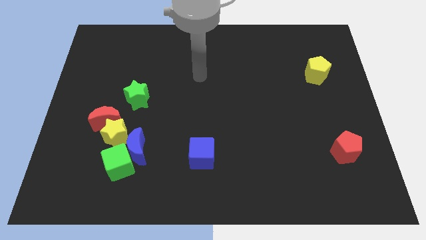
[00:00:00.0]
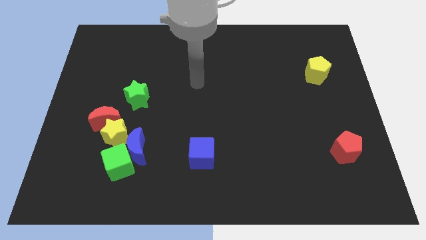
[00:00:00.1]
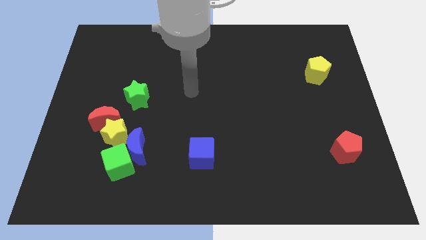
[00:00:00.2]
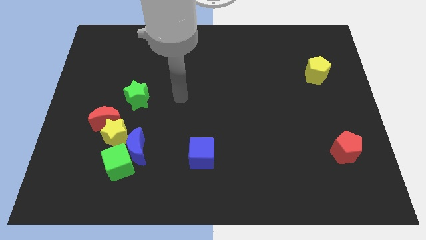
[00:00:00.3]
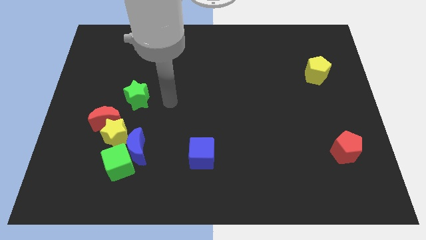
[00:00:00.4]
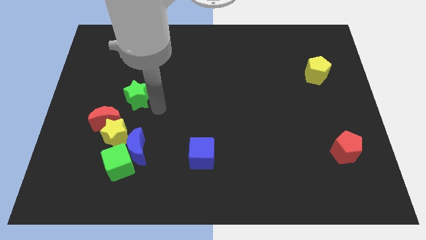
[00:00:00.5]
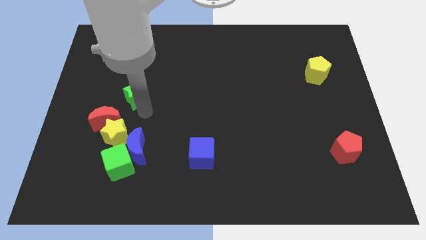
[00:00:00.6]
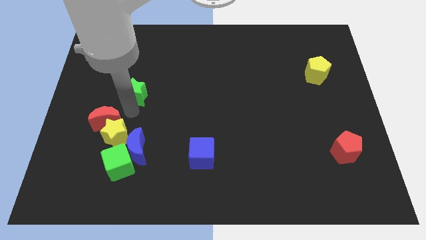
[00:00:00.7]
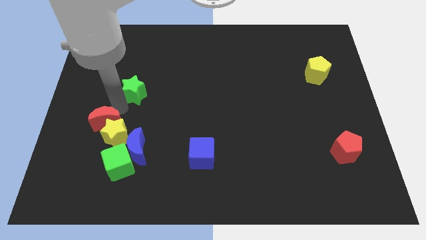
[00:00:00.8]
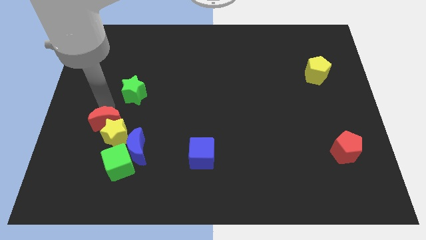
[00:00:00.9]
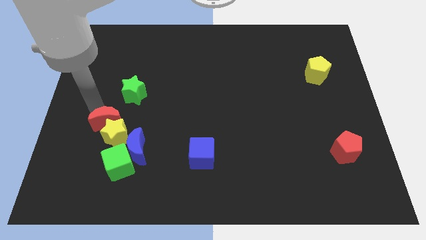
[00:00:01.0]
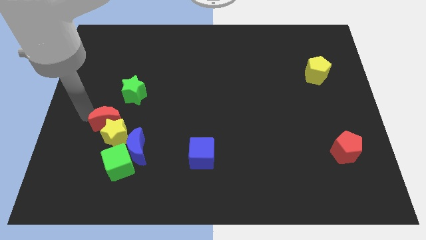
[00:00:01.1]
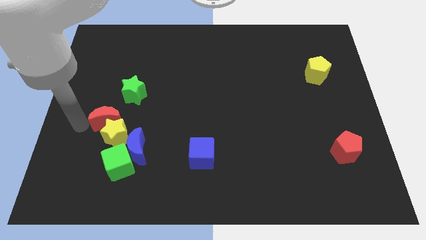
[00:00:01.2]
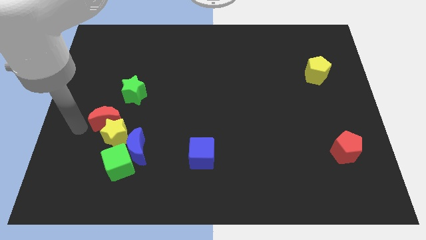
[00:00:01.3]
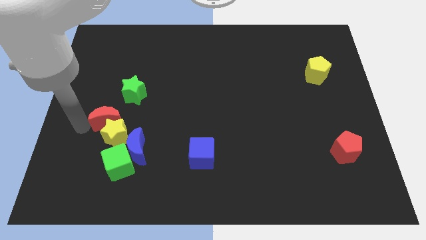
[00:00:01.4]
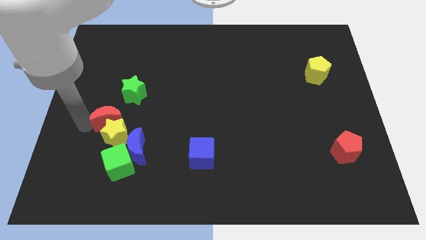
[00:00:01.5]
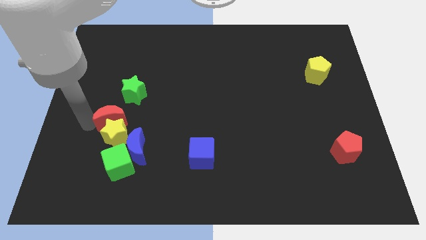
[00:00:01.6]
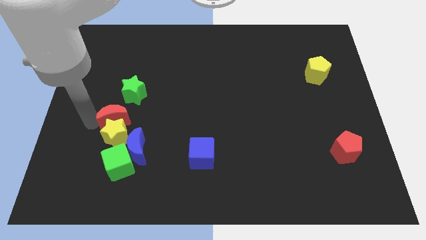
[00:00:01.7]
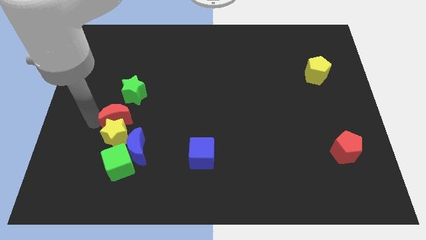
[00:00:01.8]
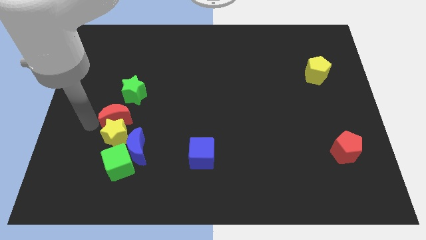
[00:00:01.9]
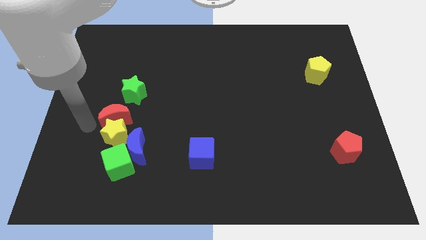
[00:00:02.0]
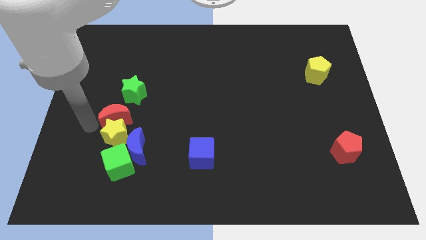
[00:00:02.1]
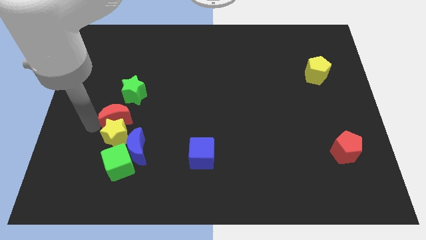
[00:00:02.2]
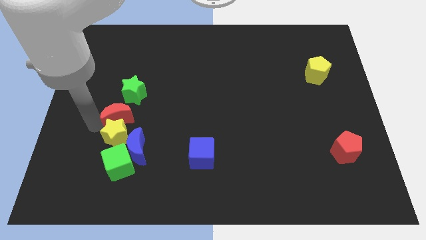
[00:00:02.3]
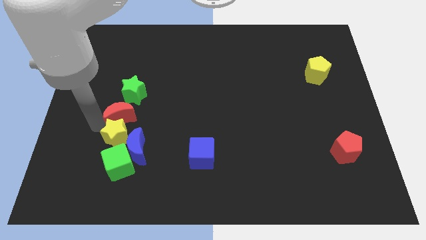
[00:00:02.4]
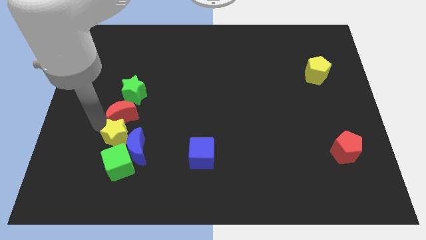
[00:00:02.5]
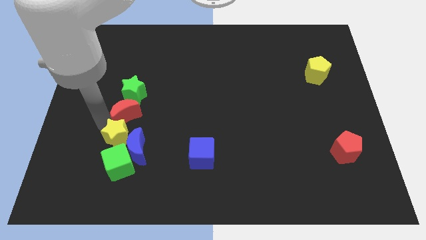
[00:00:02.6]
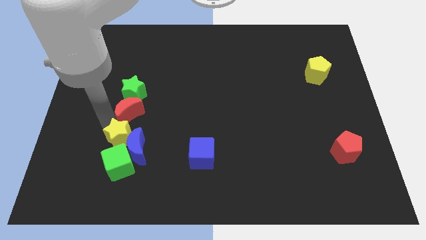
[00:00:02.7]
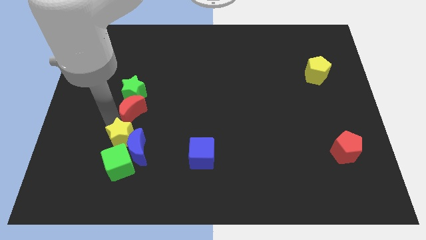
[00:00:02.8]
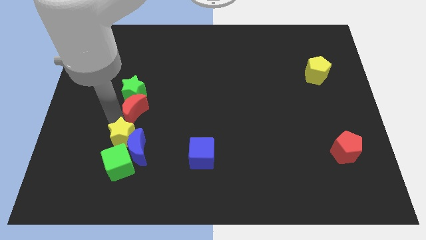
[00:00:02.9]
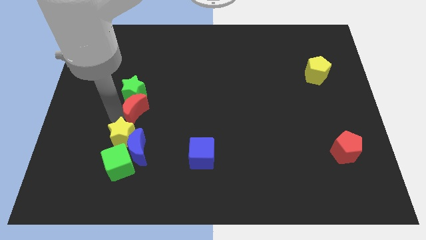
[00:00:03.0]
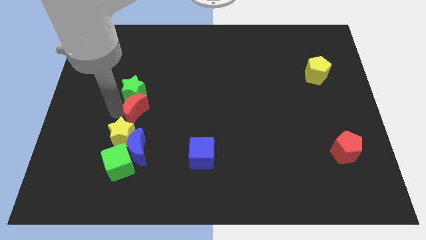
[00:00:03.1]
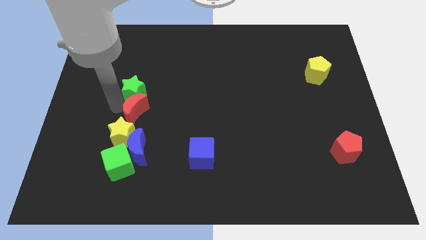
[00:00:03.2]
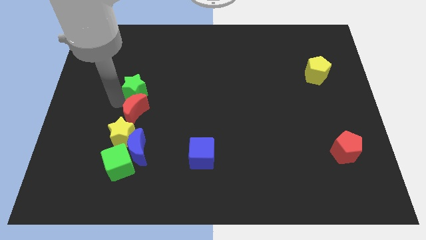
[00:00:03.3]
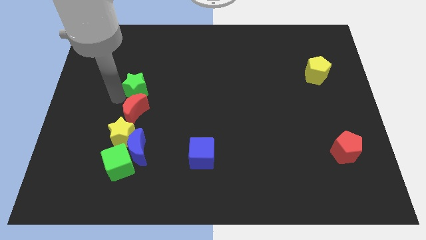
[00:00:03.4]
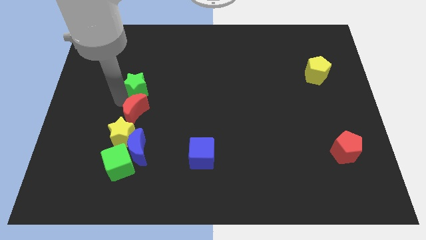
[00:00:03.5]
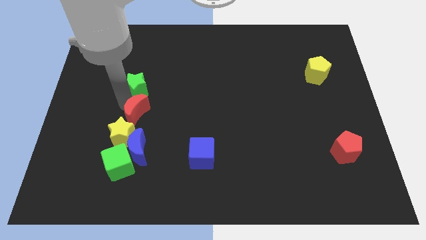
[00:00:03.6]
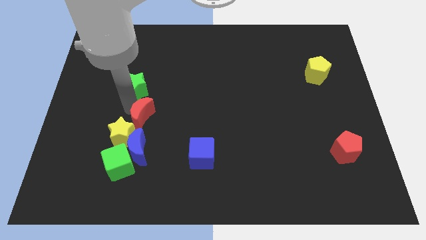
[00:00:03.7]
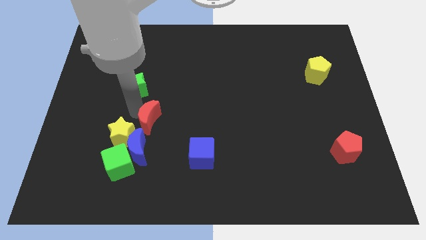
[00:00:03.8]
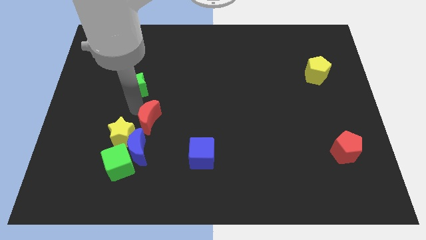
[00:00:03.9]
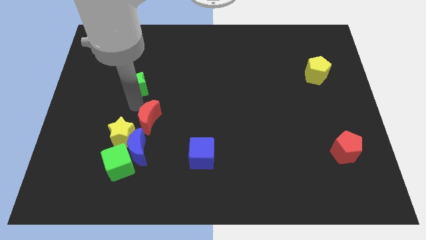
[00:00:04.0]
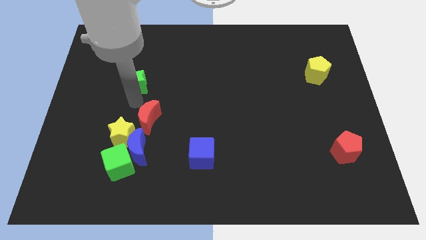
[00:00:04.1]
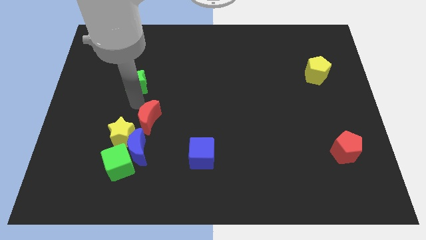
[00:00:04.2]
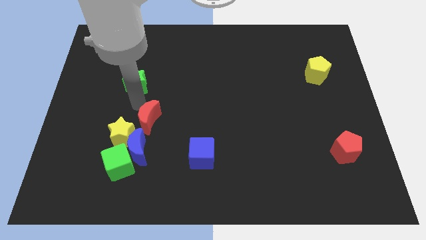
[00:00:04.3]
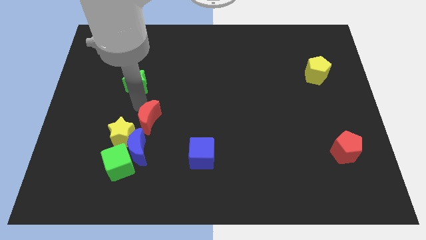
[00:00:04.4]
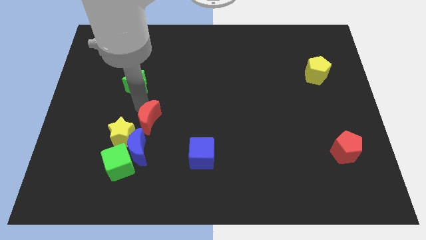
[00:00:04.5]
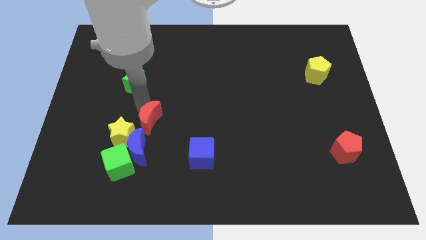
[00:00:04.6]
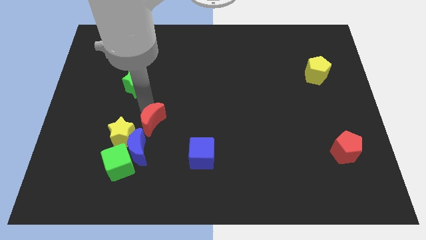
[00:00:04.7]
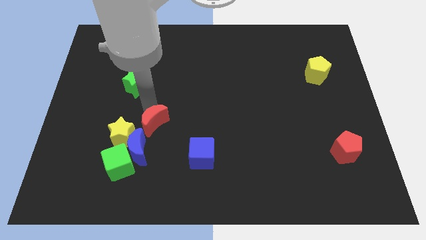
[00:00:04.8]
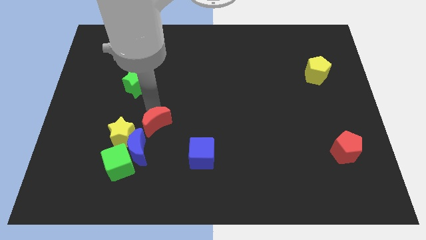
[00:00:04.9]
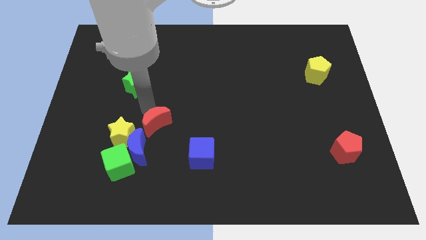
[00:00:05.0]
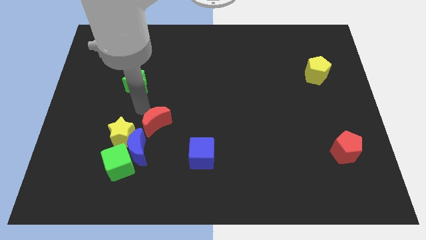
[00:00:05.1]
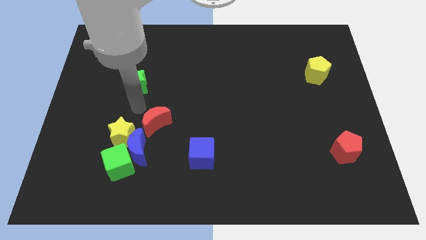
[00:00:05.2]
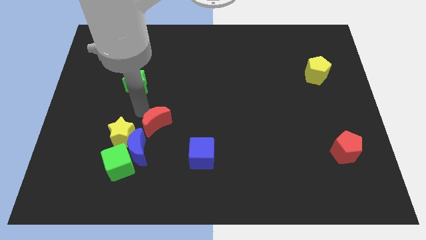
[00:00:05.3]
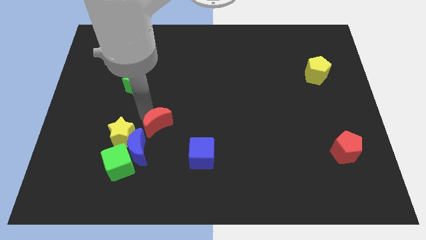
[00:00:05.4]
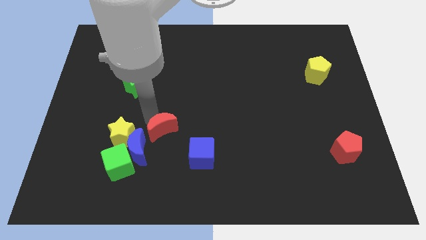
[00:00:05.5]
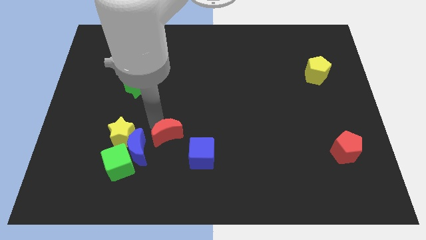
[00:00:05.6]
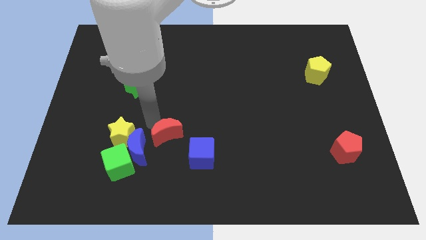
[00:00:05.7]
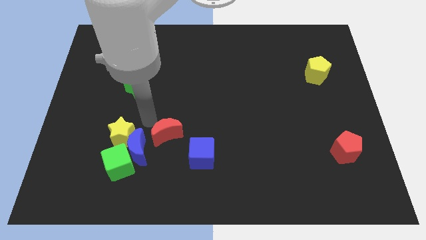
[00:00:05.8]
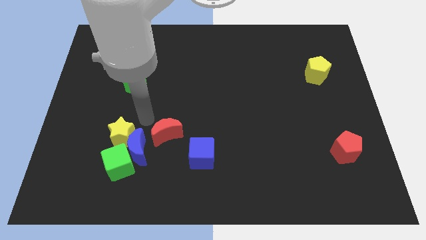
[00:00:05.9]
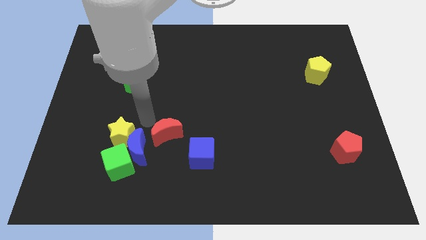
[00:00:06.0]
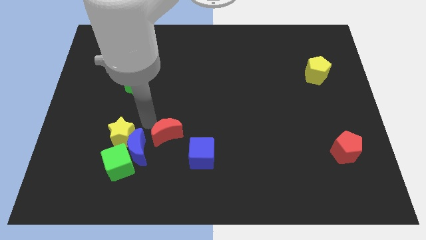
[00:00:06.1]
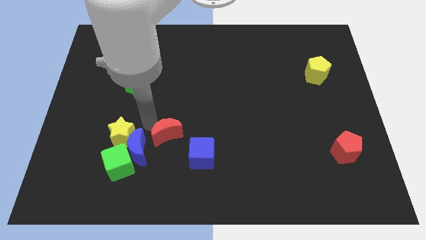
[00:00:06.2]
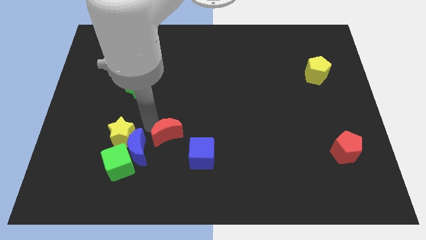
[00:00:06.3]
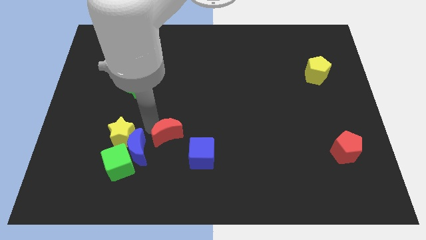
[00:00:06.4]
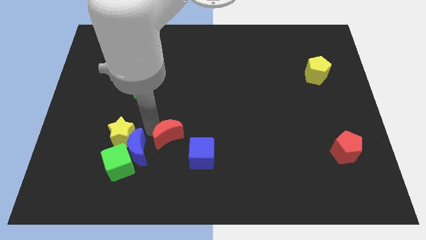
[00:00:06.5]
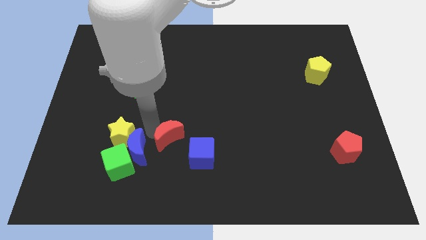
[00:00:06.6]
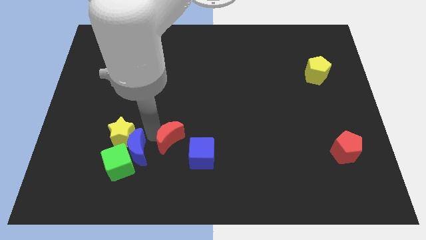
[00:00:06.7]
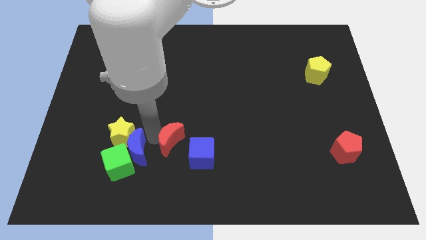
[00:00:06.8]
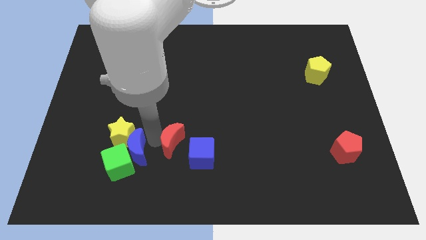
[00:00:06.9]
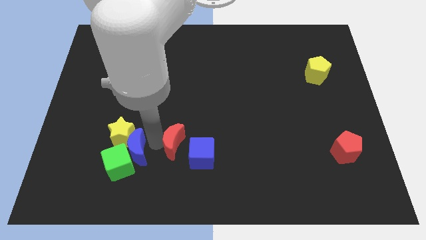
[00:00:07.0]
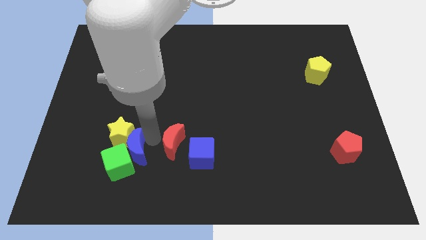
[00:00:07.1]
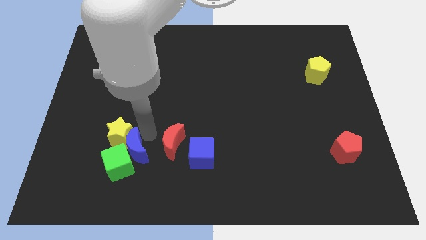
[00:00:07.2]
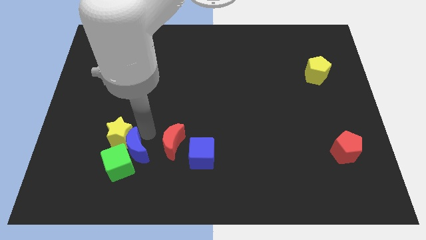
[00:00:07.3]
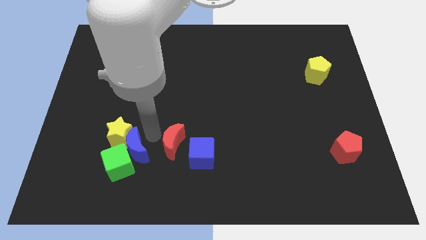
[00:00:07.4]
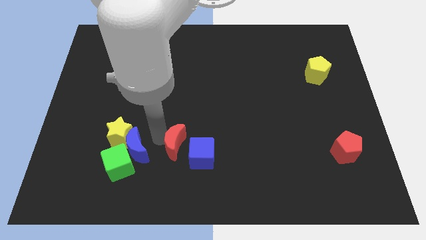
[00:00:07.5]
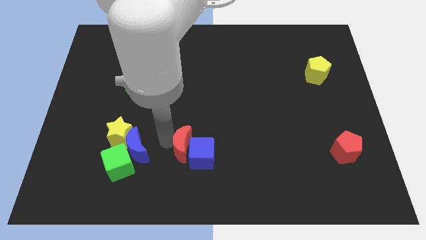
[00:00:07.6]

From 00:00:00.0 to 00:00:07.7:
push the red moon next to the blue cube
